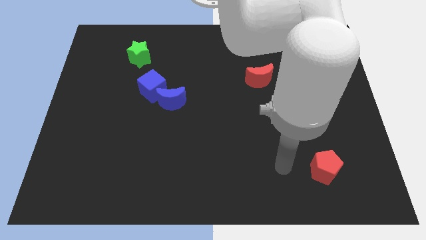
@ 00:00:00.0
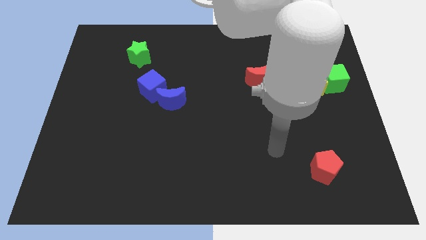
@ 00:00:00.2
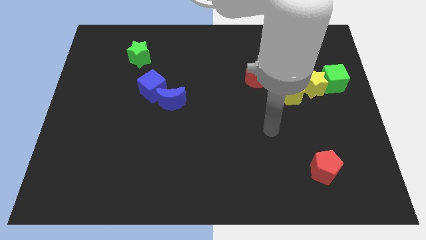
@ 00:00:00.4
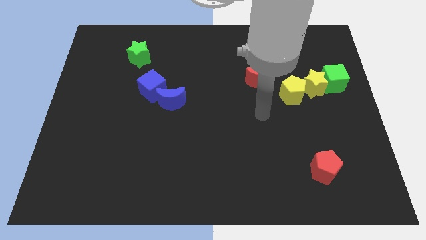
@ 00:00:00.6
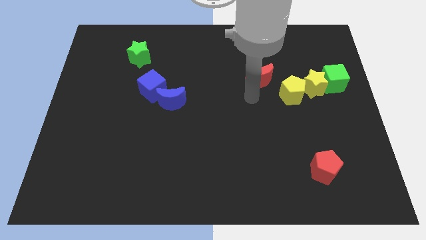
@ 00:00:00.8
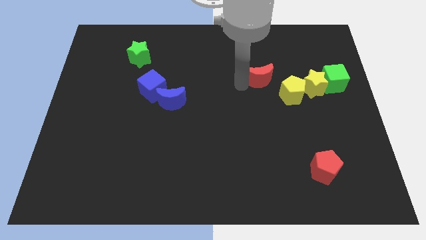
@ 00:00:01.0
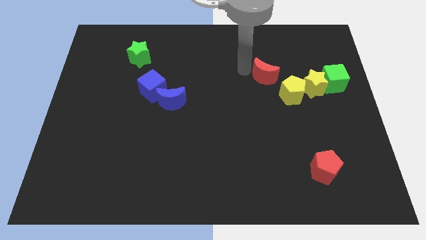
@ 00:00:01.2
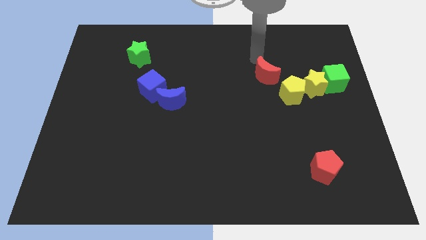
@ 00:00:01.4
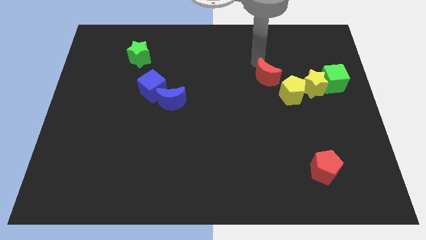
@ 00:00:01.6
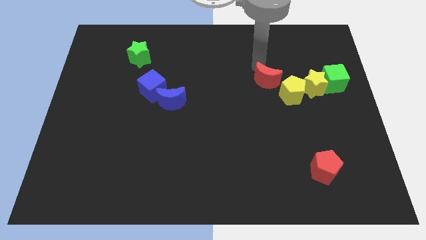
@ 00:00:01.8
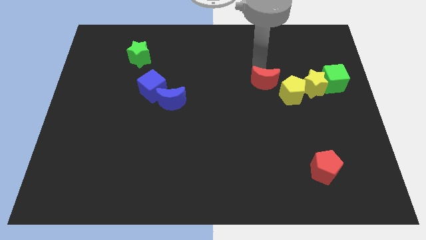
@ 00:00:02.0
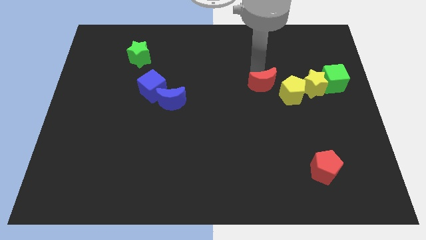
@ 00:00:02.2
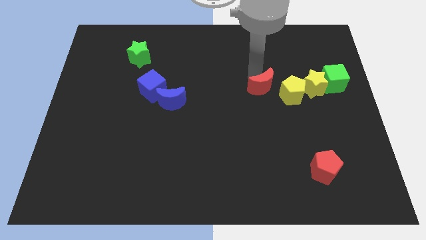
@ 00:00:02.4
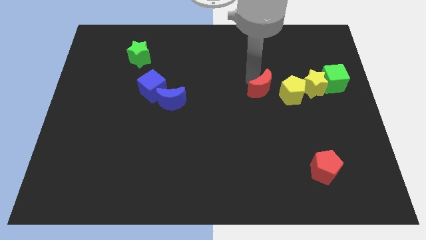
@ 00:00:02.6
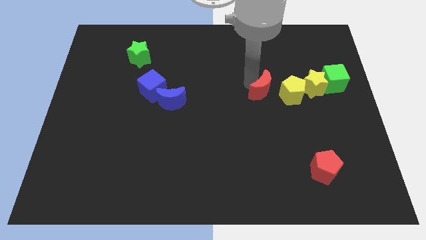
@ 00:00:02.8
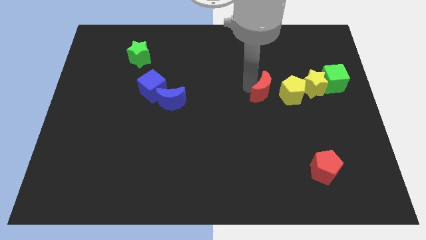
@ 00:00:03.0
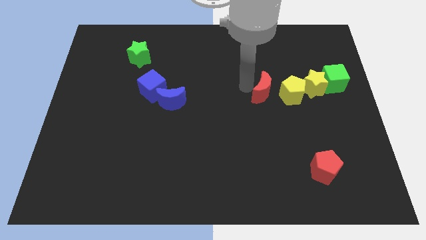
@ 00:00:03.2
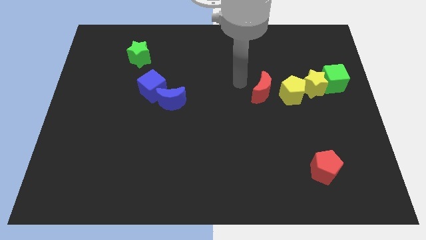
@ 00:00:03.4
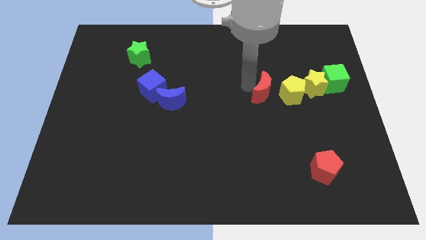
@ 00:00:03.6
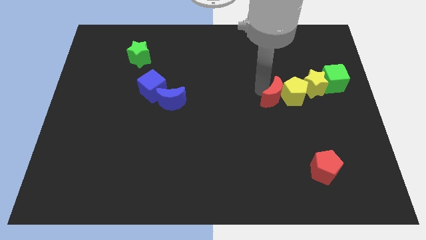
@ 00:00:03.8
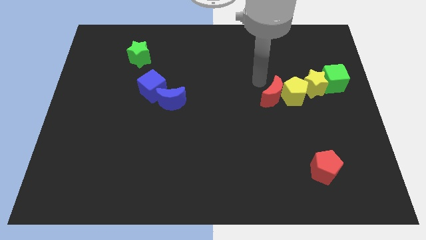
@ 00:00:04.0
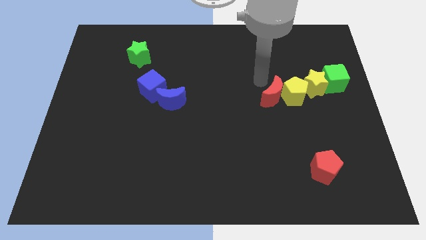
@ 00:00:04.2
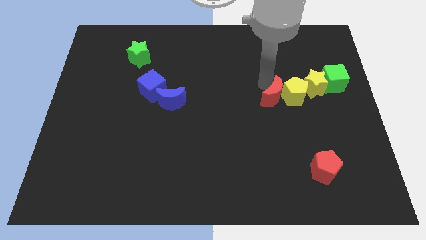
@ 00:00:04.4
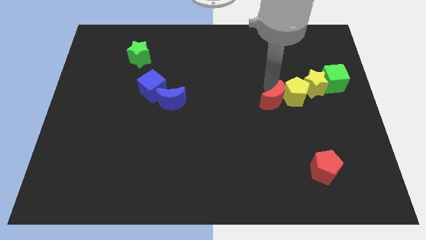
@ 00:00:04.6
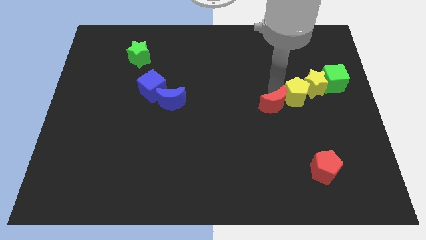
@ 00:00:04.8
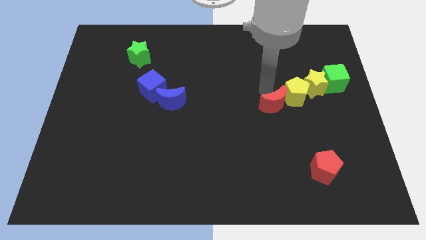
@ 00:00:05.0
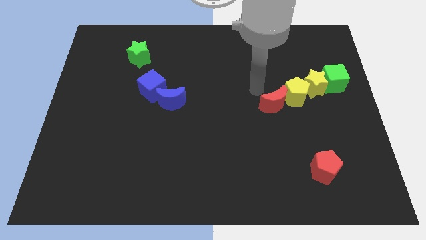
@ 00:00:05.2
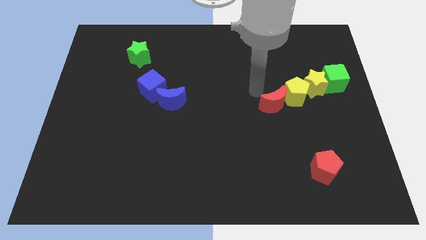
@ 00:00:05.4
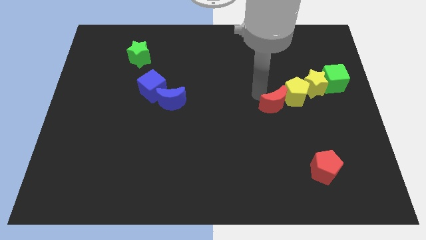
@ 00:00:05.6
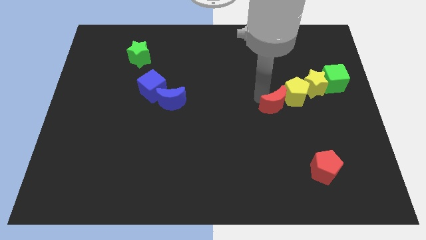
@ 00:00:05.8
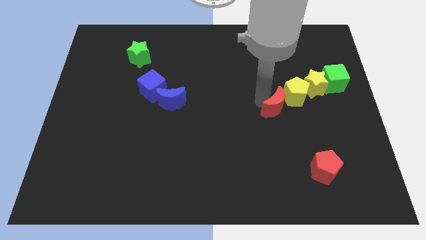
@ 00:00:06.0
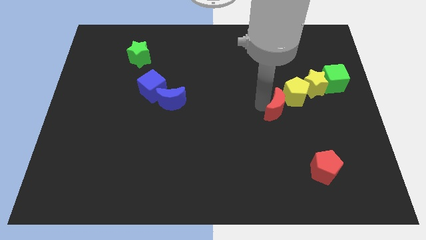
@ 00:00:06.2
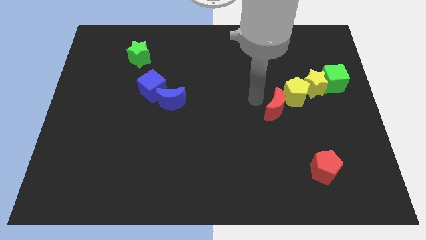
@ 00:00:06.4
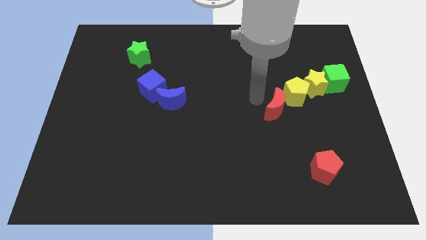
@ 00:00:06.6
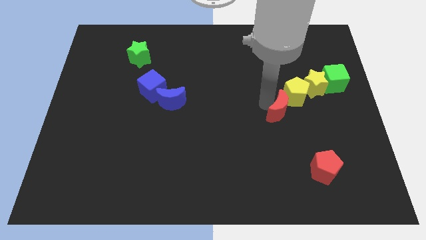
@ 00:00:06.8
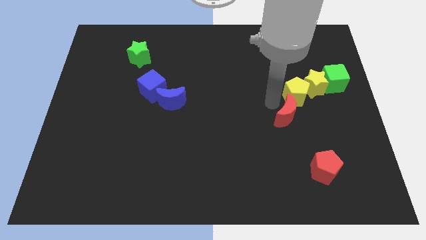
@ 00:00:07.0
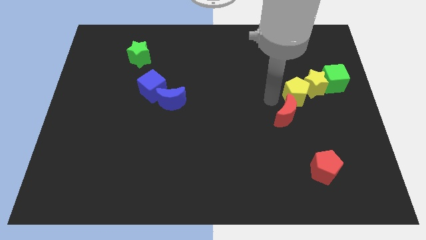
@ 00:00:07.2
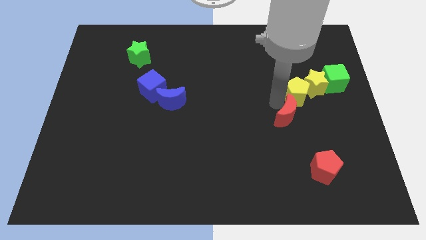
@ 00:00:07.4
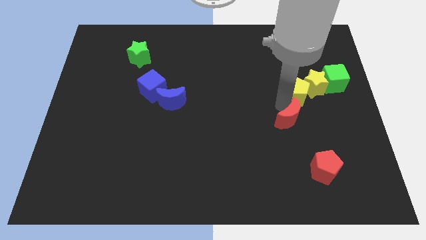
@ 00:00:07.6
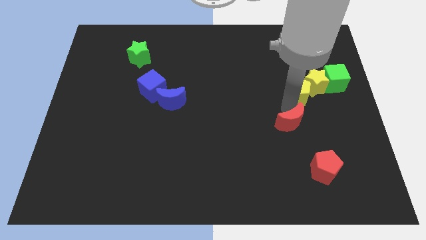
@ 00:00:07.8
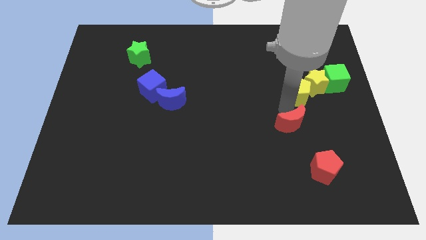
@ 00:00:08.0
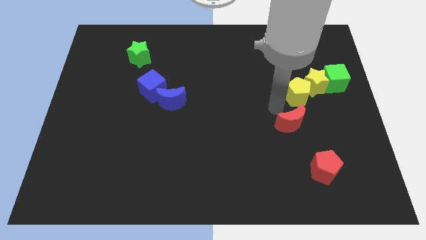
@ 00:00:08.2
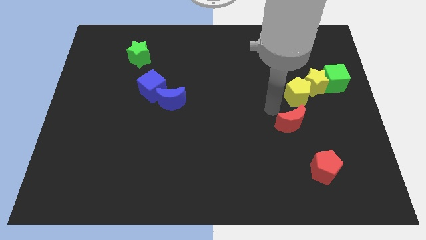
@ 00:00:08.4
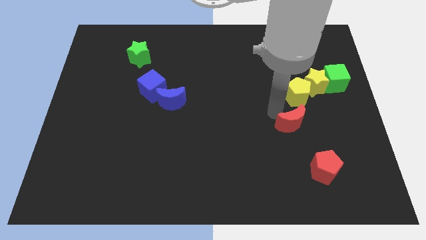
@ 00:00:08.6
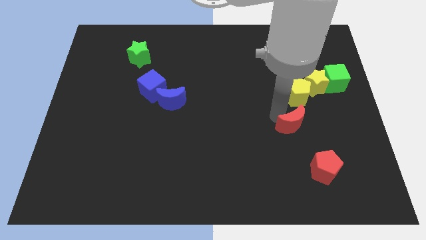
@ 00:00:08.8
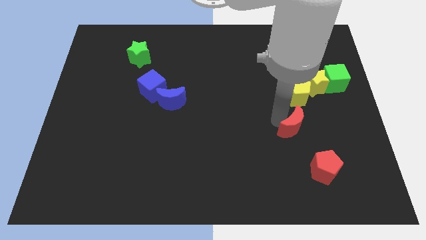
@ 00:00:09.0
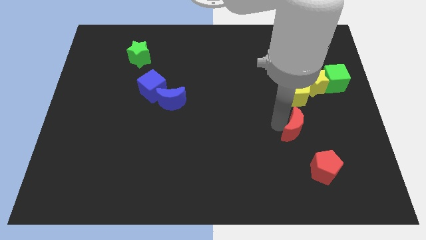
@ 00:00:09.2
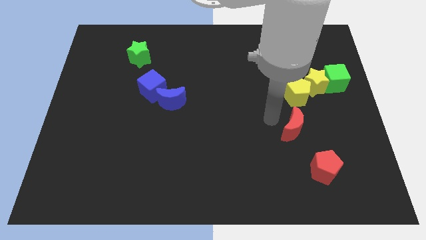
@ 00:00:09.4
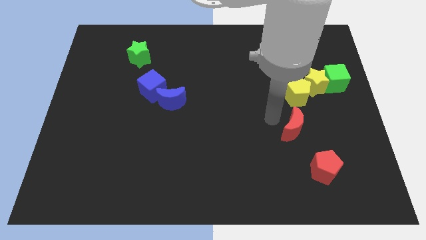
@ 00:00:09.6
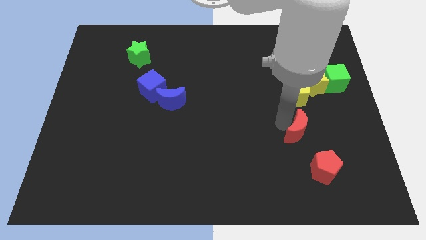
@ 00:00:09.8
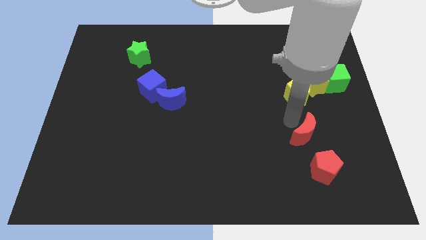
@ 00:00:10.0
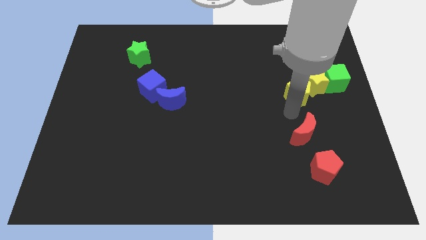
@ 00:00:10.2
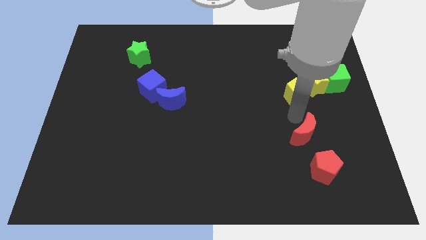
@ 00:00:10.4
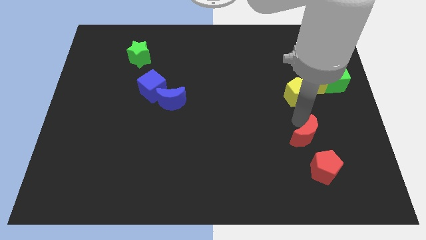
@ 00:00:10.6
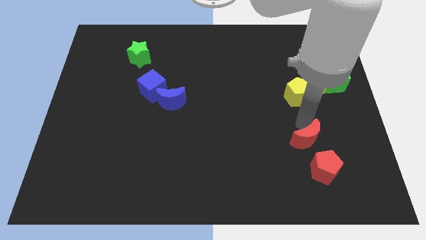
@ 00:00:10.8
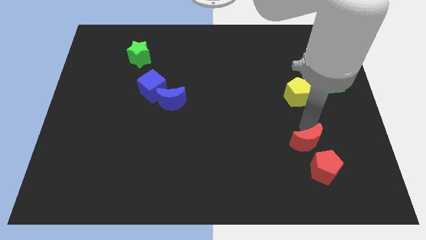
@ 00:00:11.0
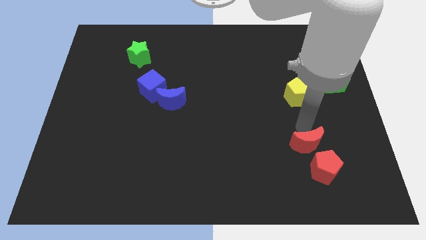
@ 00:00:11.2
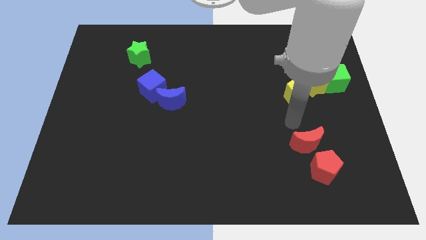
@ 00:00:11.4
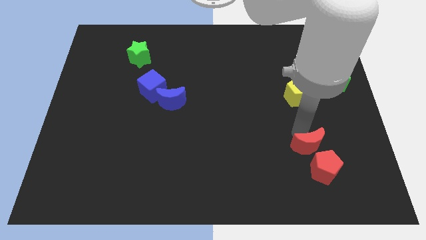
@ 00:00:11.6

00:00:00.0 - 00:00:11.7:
move the red moon close to the red pentagon
